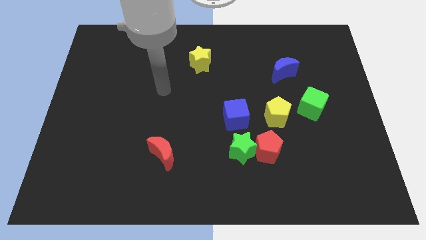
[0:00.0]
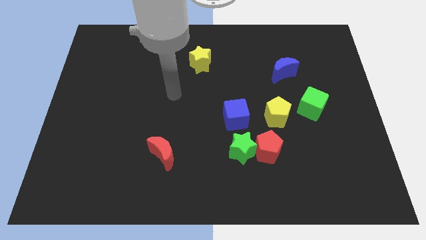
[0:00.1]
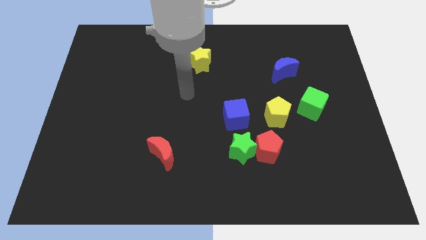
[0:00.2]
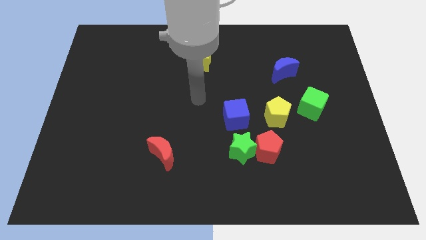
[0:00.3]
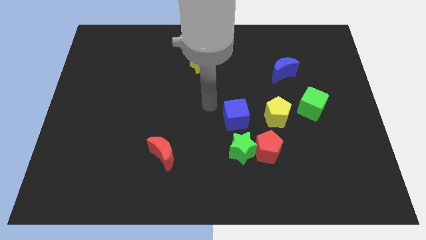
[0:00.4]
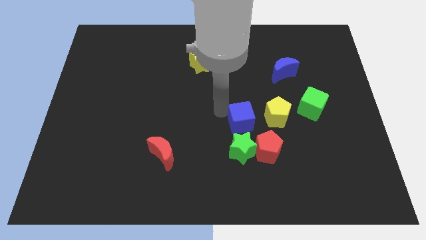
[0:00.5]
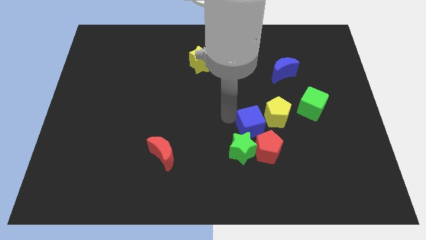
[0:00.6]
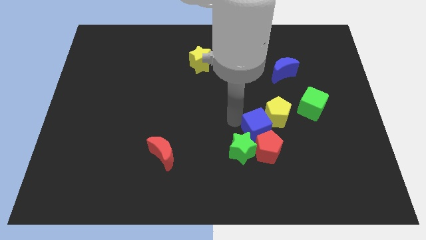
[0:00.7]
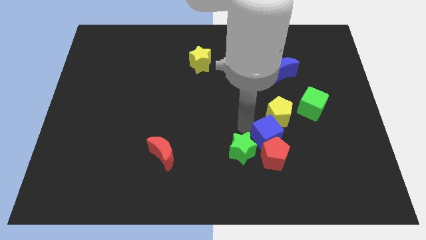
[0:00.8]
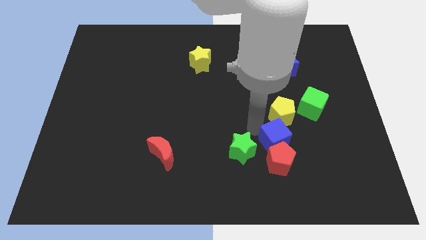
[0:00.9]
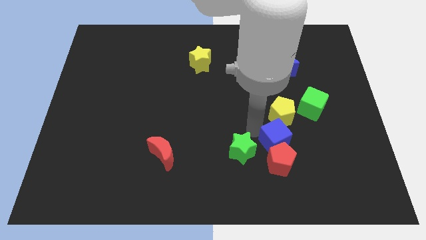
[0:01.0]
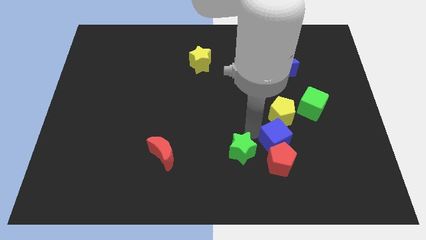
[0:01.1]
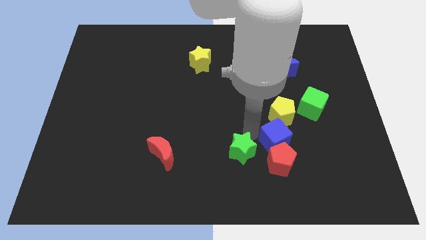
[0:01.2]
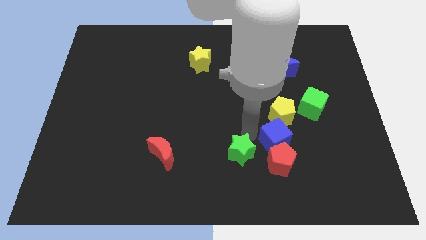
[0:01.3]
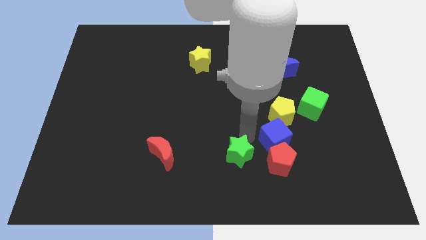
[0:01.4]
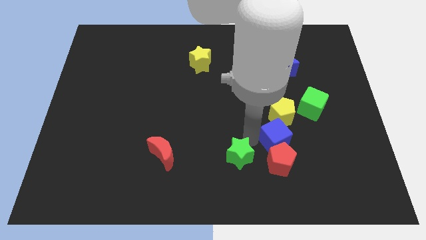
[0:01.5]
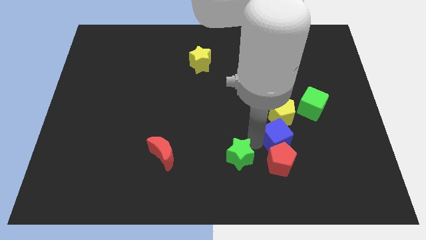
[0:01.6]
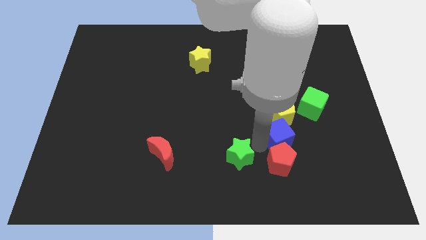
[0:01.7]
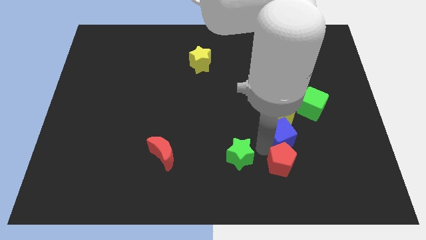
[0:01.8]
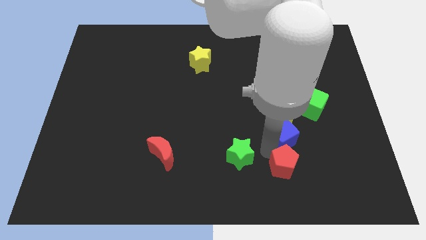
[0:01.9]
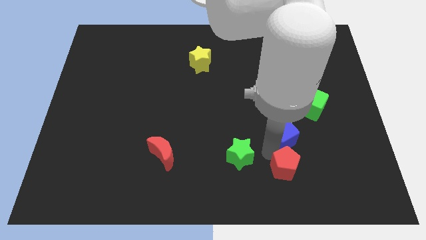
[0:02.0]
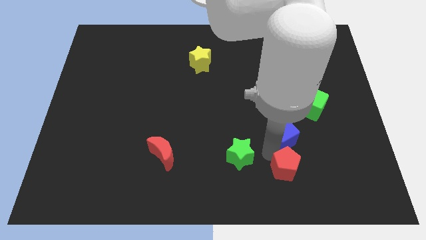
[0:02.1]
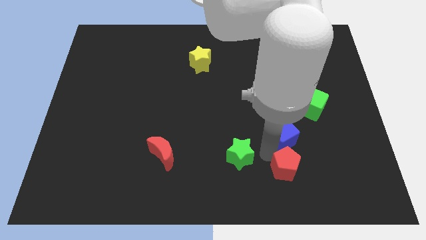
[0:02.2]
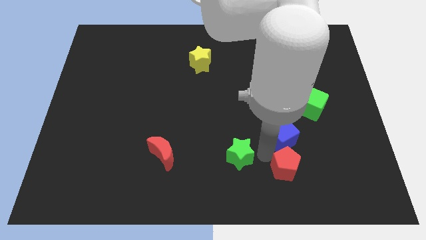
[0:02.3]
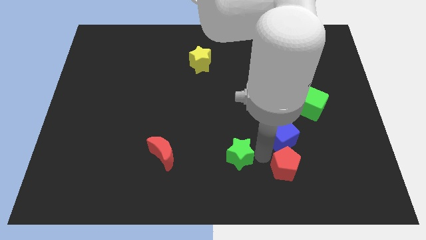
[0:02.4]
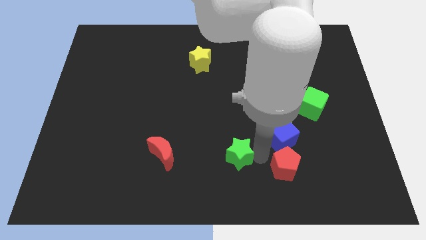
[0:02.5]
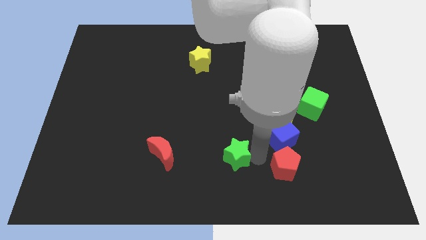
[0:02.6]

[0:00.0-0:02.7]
pull the green star apart from the red pentagon and blue cube

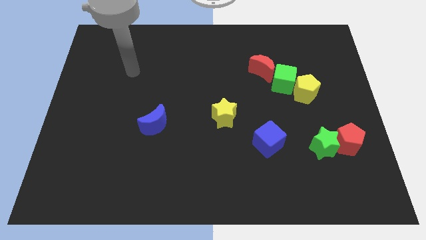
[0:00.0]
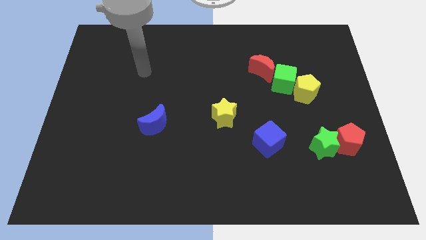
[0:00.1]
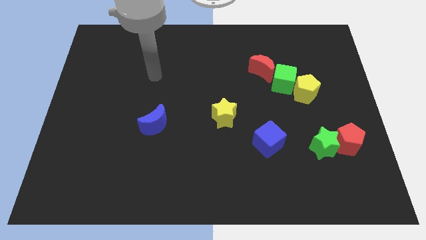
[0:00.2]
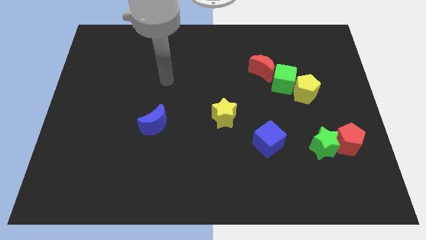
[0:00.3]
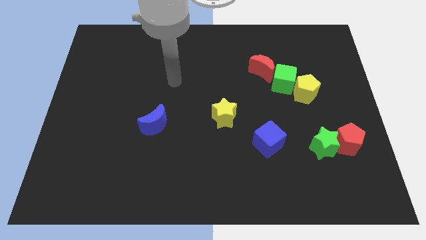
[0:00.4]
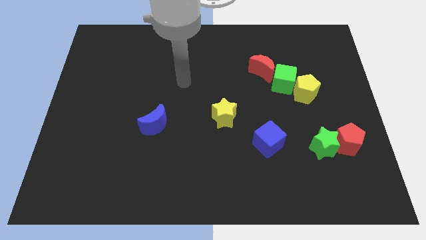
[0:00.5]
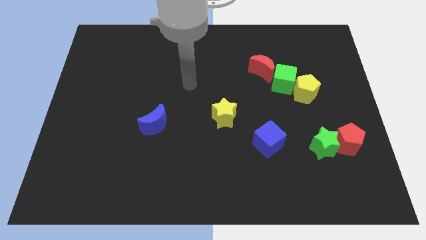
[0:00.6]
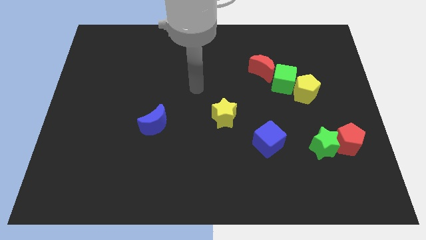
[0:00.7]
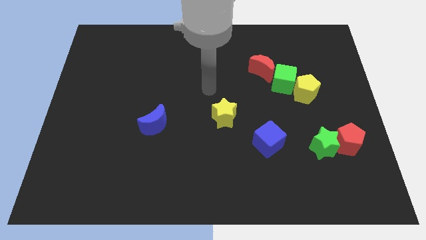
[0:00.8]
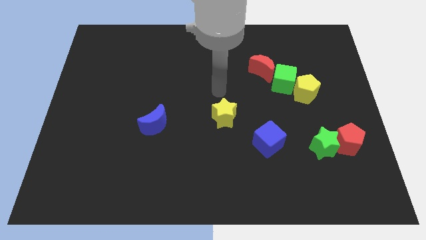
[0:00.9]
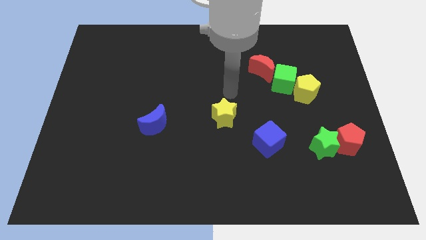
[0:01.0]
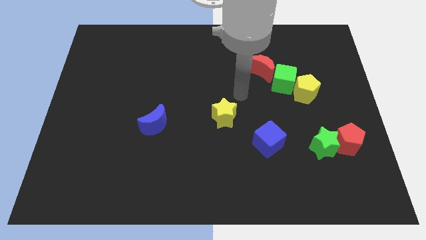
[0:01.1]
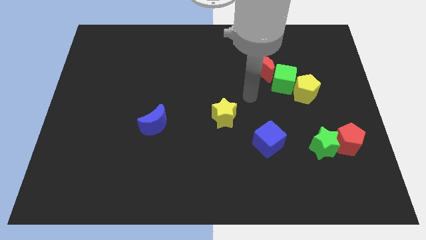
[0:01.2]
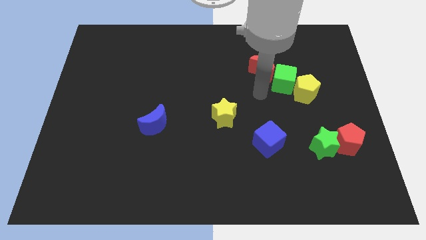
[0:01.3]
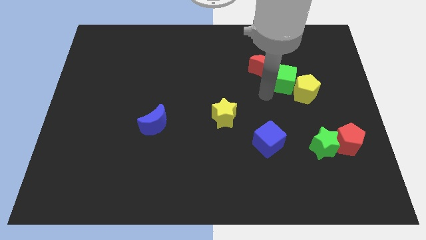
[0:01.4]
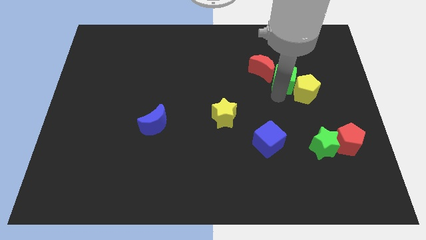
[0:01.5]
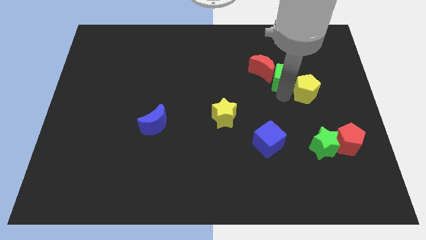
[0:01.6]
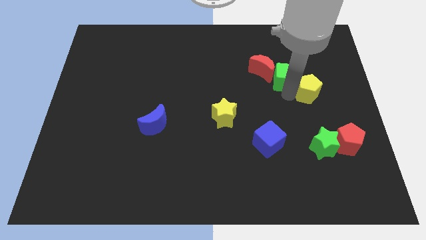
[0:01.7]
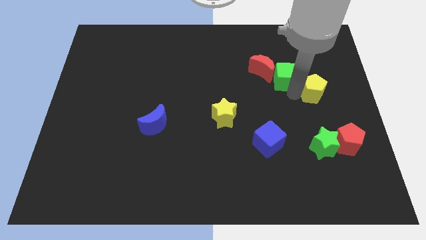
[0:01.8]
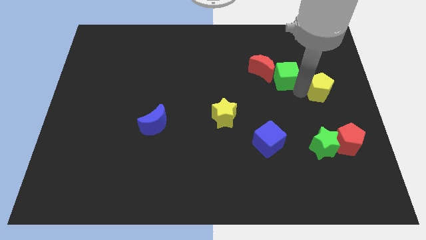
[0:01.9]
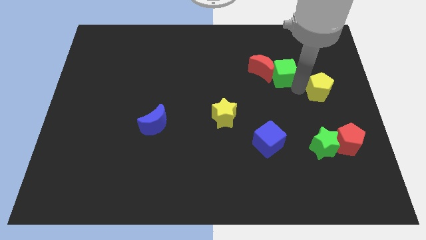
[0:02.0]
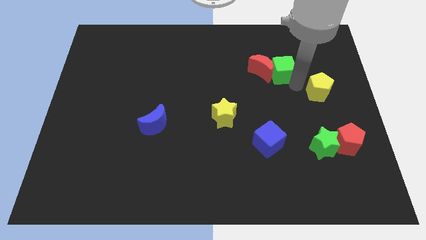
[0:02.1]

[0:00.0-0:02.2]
separate the yellow pentagon from the green cube

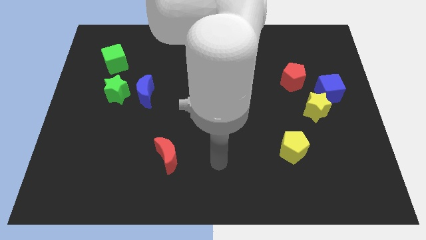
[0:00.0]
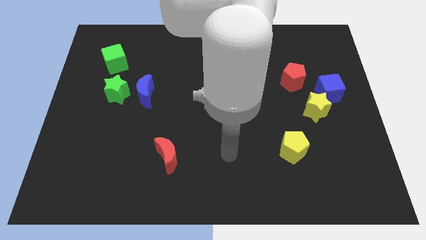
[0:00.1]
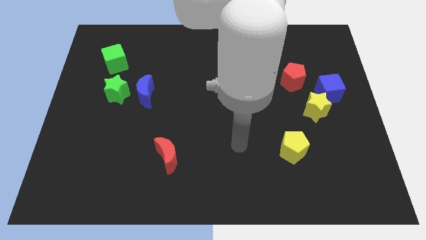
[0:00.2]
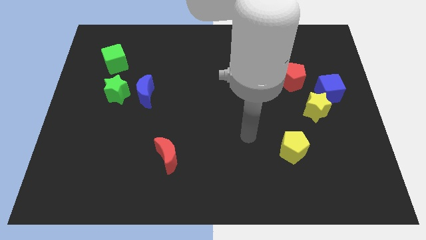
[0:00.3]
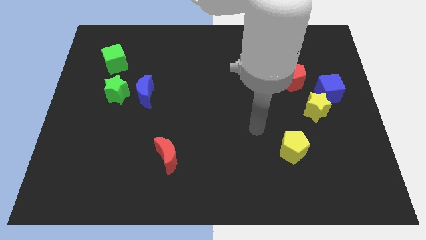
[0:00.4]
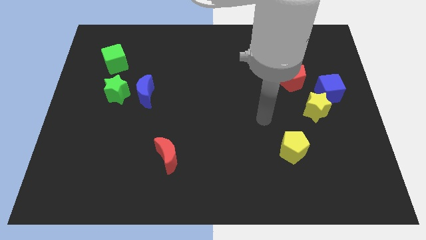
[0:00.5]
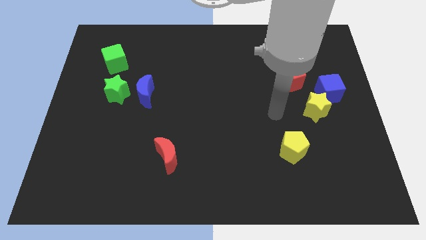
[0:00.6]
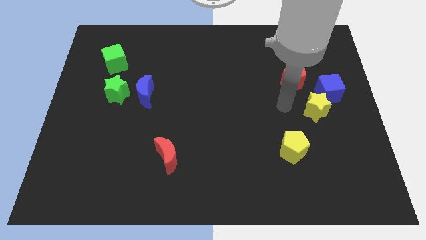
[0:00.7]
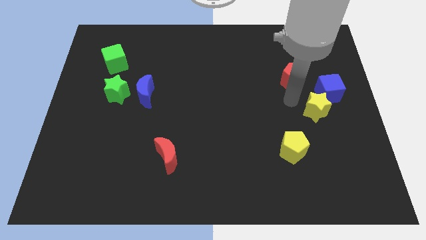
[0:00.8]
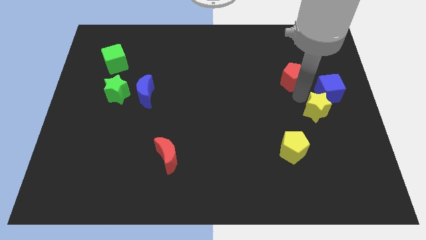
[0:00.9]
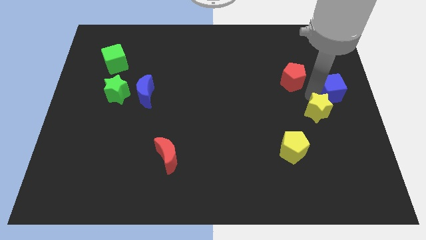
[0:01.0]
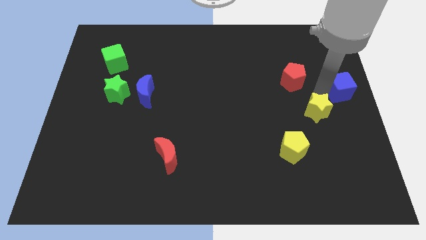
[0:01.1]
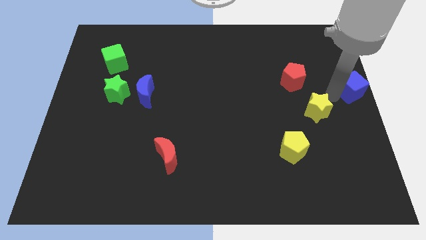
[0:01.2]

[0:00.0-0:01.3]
separate the yellow star from the blue cube

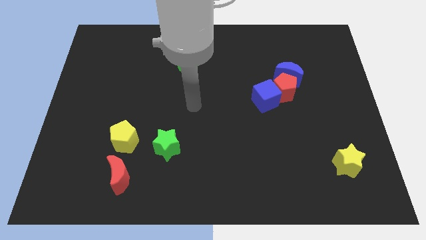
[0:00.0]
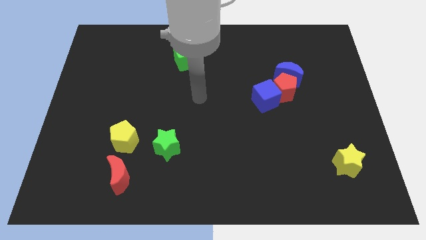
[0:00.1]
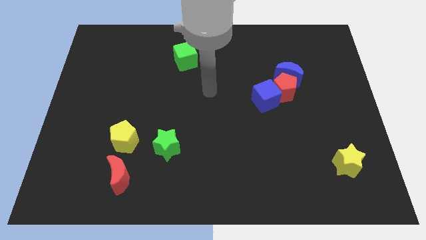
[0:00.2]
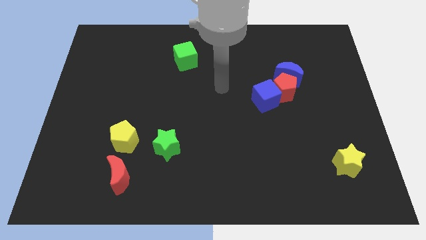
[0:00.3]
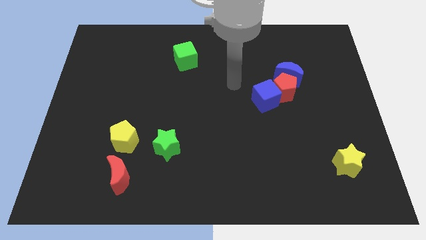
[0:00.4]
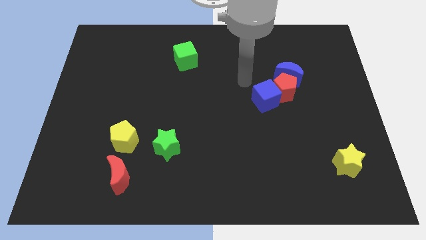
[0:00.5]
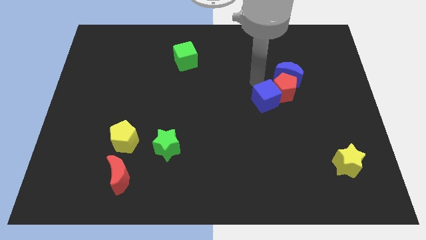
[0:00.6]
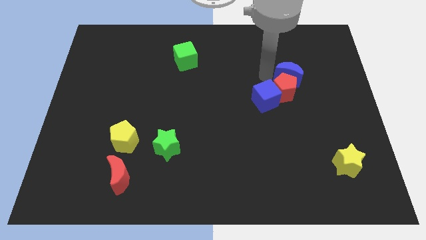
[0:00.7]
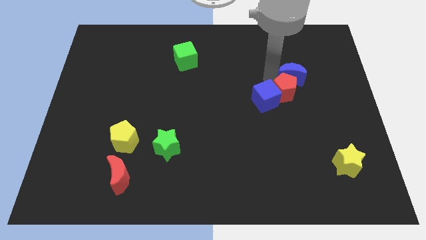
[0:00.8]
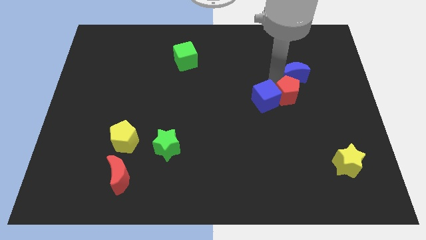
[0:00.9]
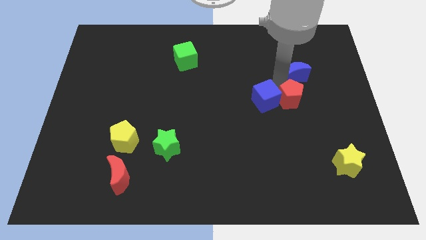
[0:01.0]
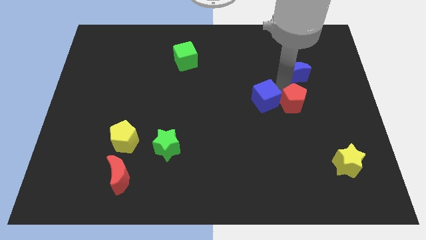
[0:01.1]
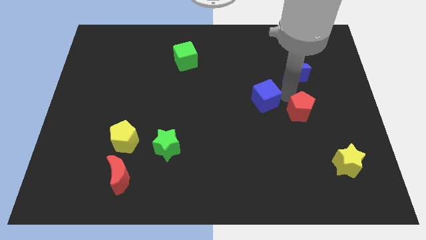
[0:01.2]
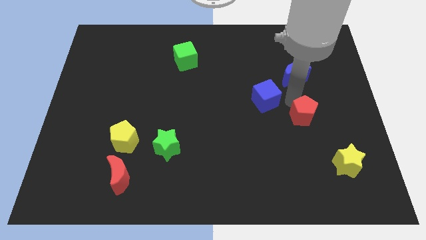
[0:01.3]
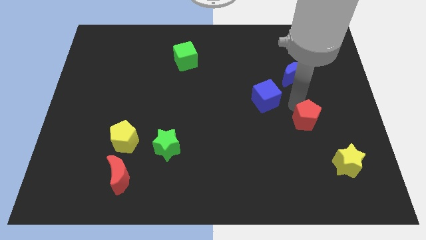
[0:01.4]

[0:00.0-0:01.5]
separate the red pentagon from the blue moon and blue cube

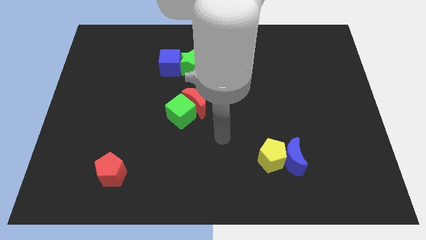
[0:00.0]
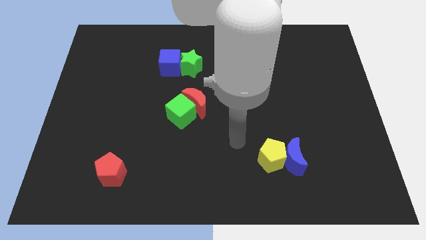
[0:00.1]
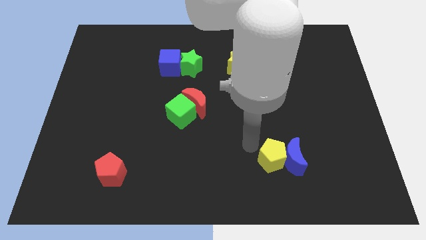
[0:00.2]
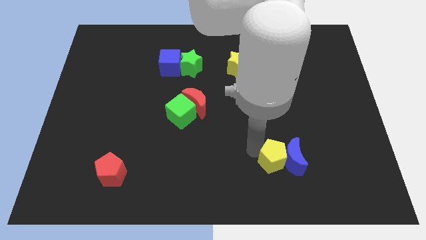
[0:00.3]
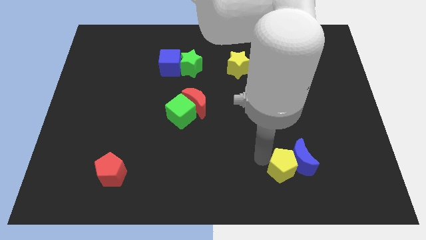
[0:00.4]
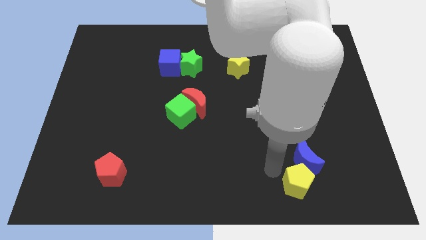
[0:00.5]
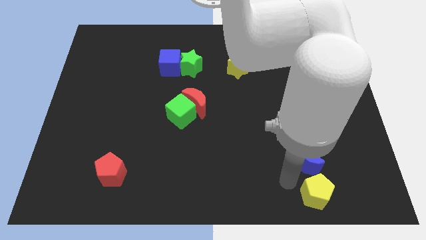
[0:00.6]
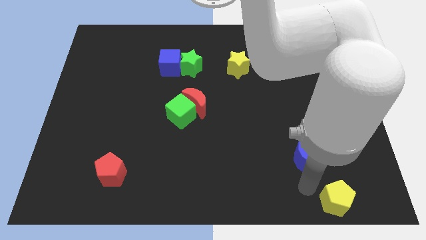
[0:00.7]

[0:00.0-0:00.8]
separate the blue moon from the yellow pentagon

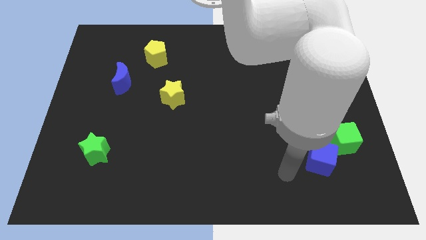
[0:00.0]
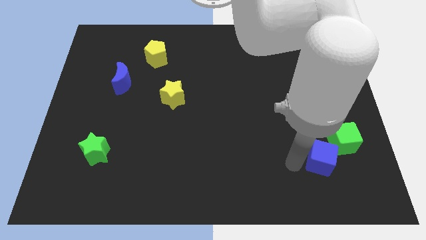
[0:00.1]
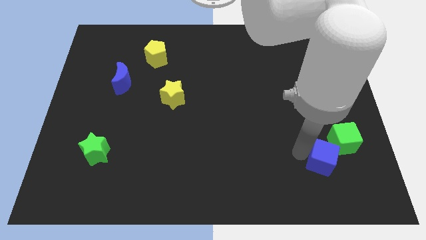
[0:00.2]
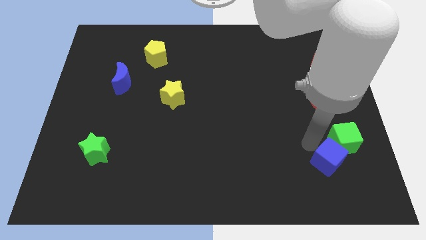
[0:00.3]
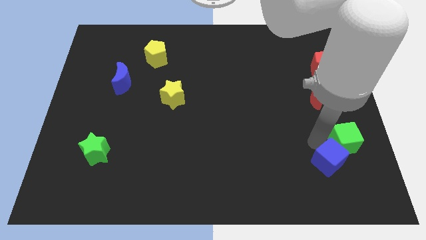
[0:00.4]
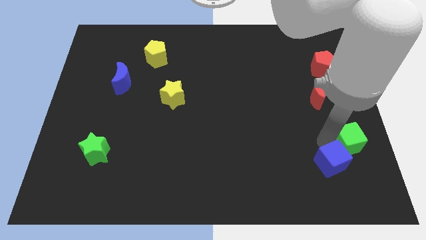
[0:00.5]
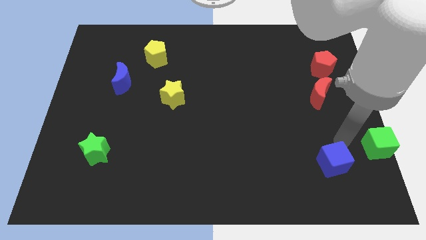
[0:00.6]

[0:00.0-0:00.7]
pull the blue cube apart from the green cube
